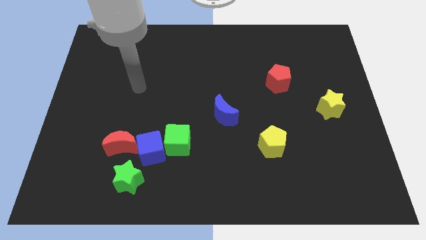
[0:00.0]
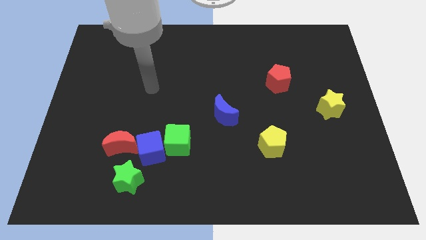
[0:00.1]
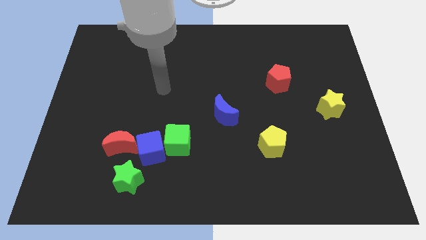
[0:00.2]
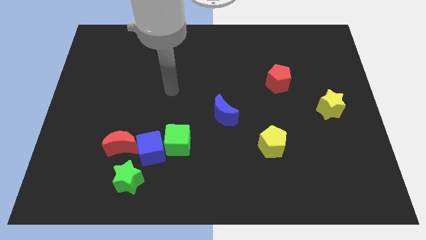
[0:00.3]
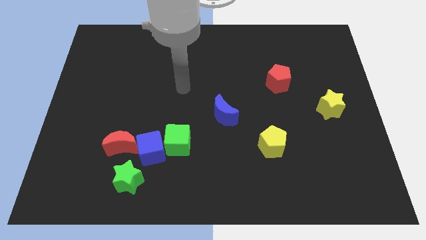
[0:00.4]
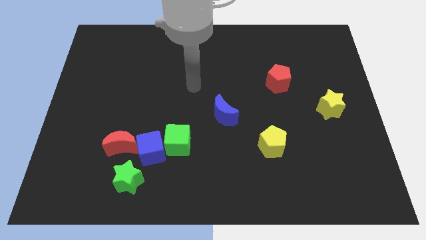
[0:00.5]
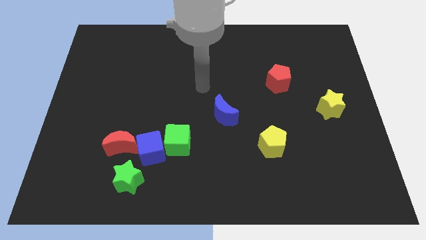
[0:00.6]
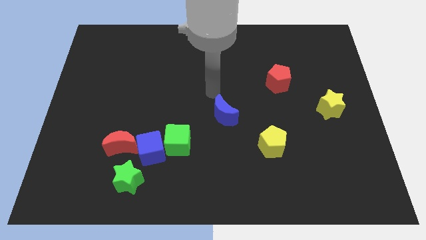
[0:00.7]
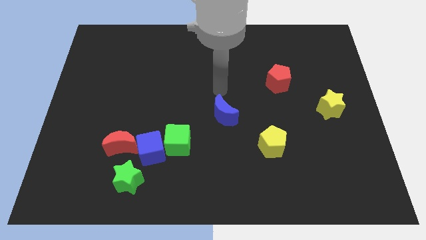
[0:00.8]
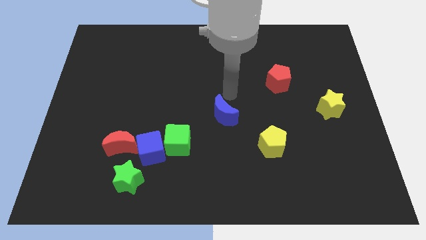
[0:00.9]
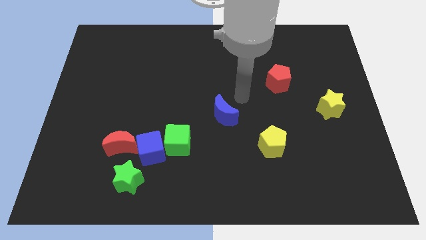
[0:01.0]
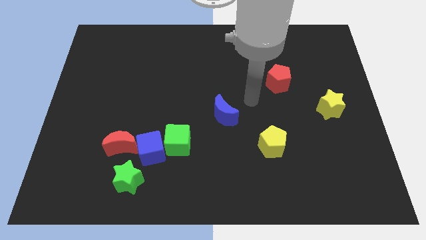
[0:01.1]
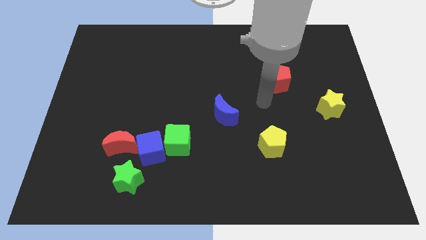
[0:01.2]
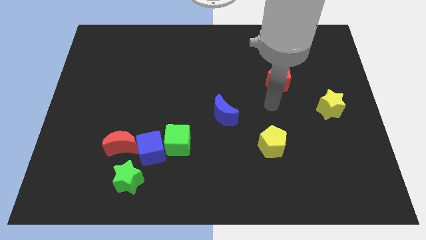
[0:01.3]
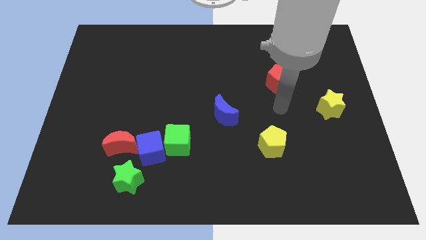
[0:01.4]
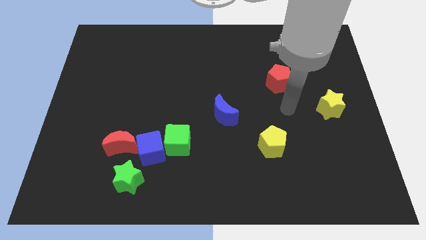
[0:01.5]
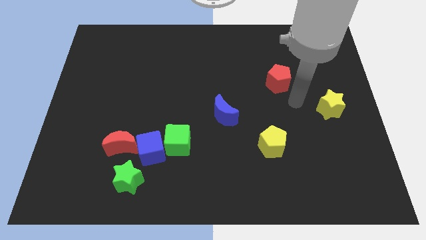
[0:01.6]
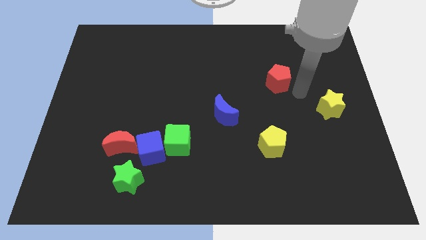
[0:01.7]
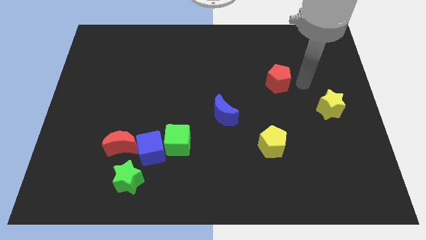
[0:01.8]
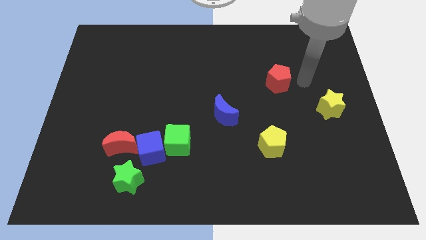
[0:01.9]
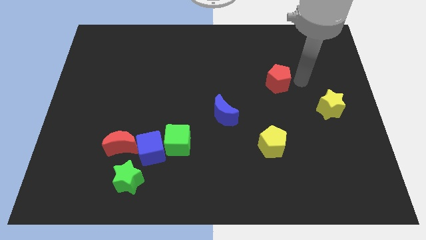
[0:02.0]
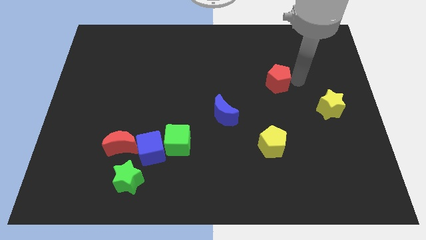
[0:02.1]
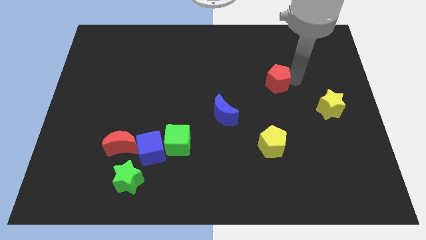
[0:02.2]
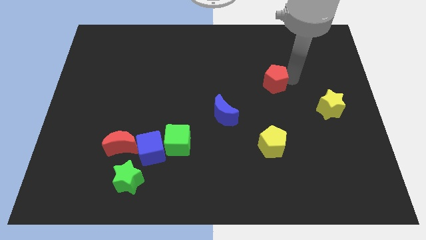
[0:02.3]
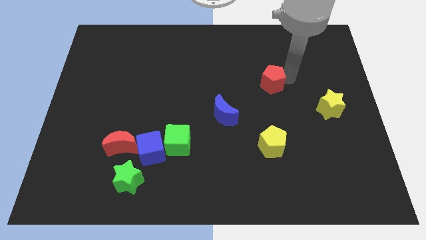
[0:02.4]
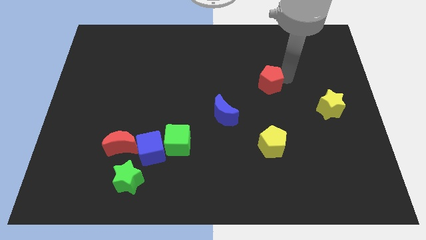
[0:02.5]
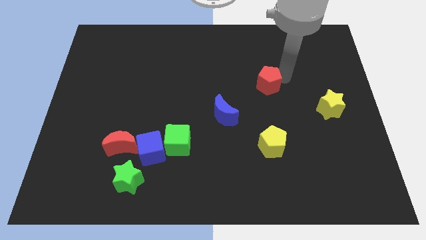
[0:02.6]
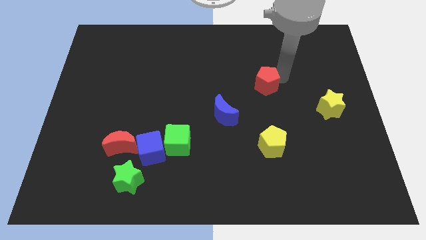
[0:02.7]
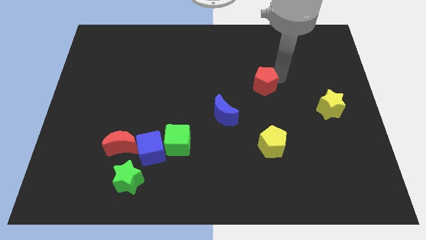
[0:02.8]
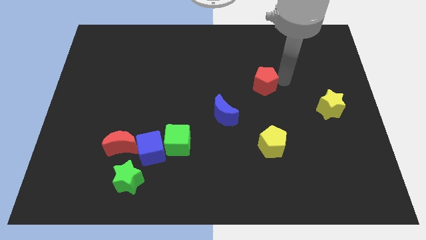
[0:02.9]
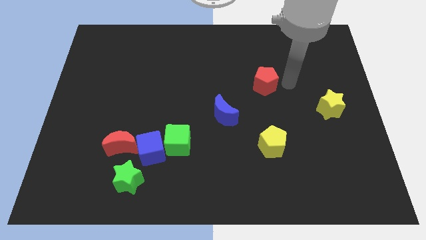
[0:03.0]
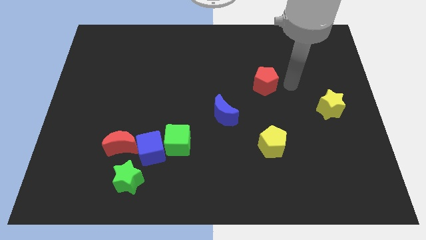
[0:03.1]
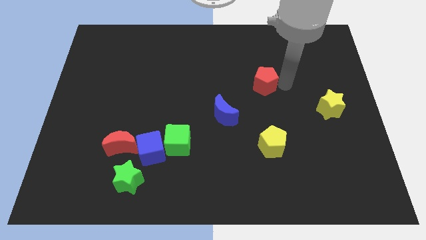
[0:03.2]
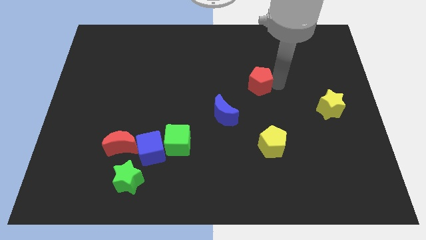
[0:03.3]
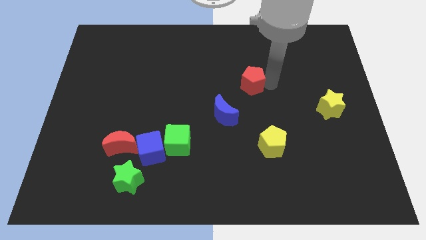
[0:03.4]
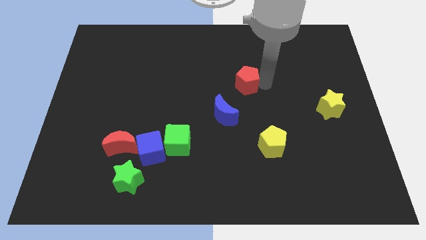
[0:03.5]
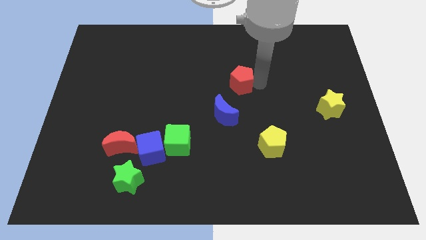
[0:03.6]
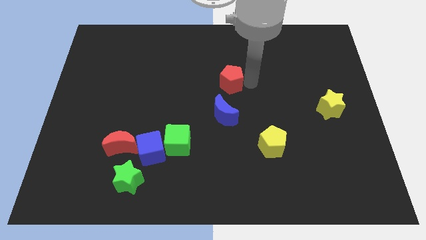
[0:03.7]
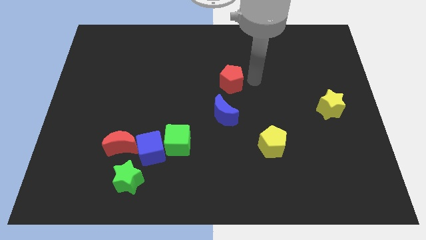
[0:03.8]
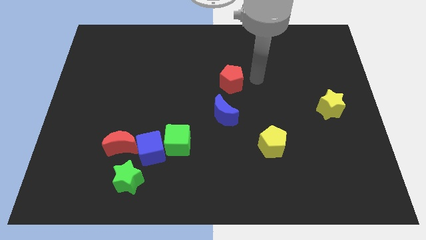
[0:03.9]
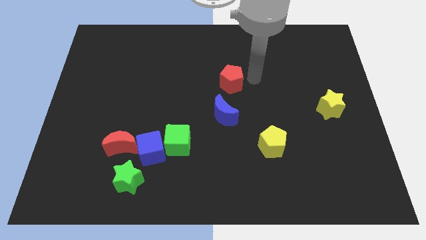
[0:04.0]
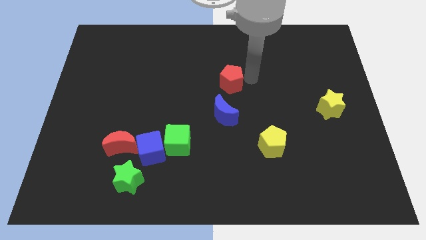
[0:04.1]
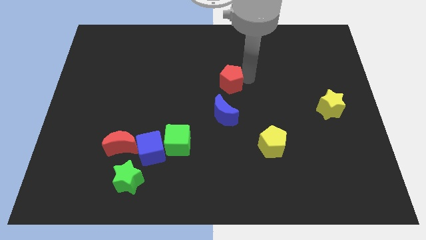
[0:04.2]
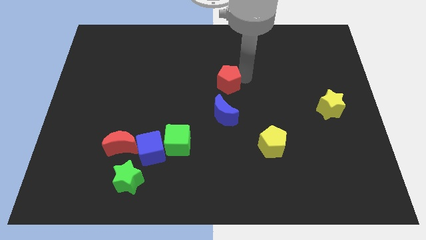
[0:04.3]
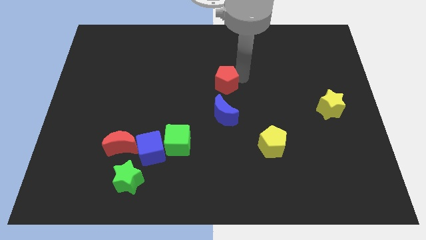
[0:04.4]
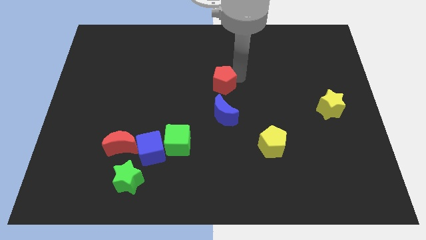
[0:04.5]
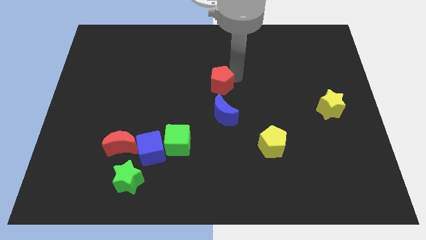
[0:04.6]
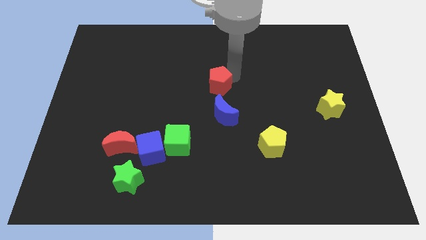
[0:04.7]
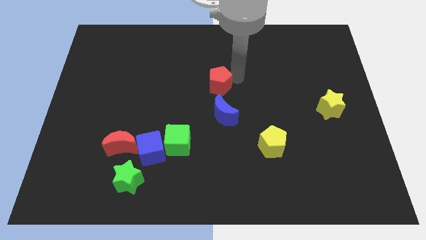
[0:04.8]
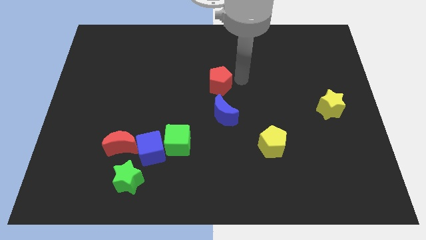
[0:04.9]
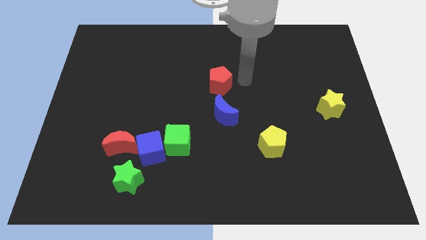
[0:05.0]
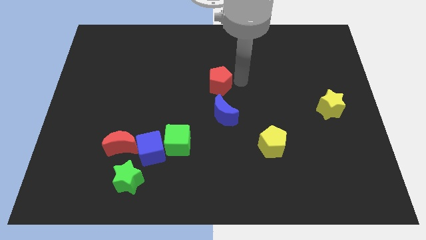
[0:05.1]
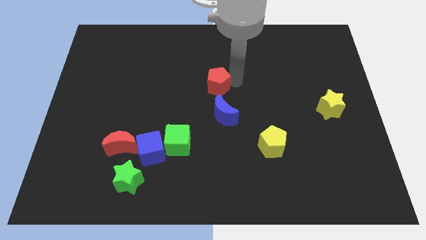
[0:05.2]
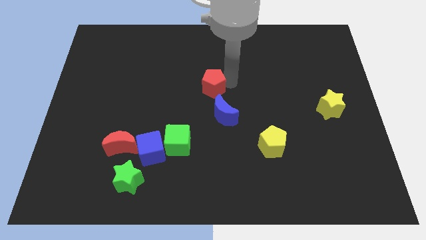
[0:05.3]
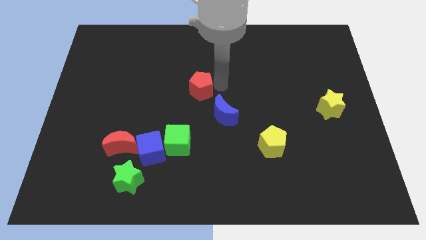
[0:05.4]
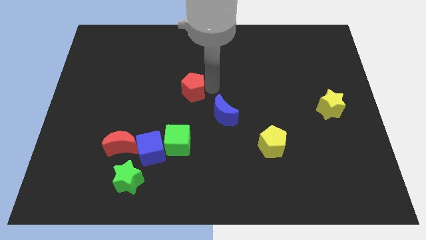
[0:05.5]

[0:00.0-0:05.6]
push the red pentagon to the left

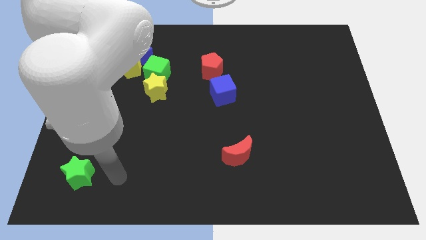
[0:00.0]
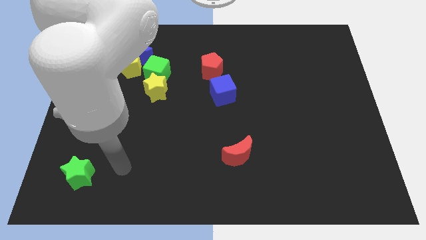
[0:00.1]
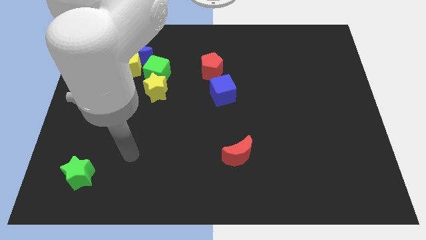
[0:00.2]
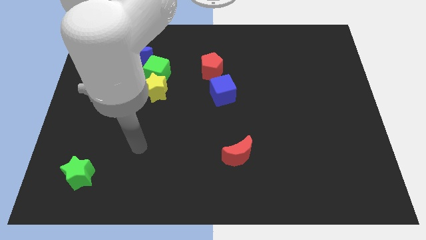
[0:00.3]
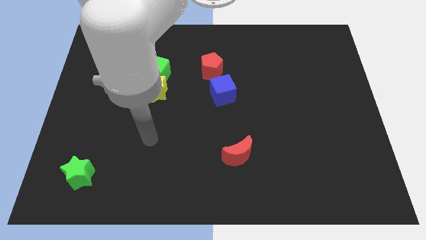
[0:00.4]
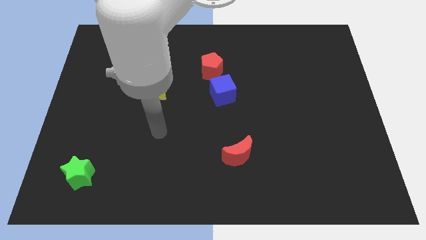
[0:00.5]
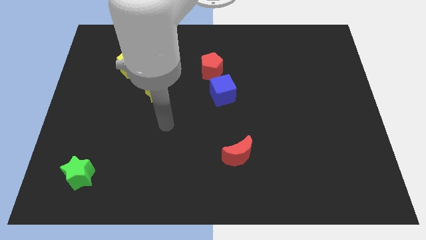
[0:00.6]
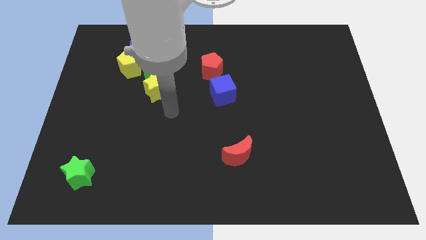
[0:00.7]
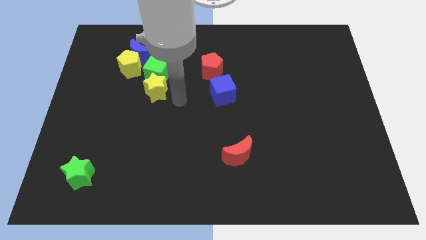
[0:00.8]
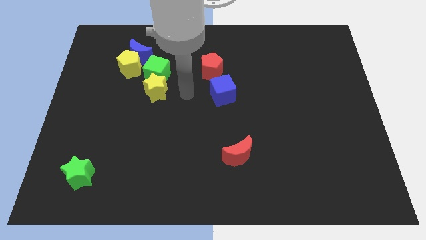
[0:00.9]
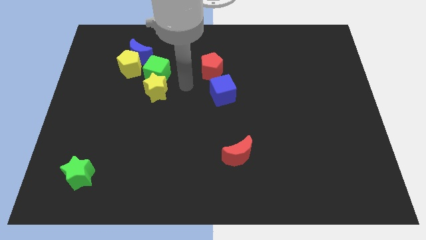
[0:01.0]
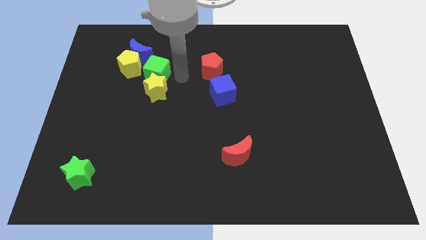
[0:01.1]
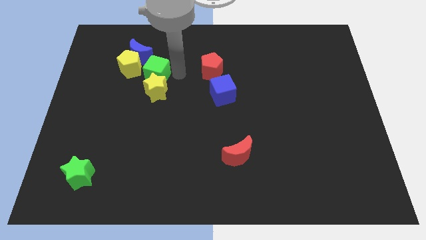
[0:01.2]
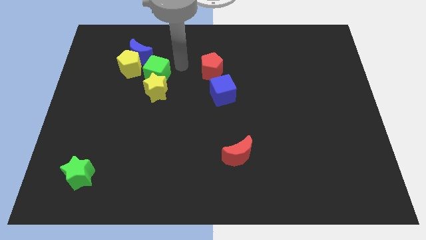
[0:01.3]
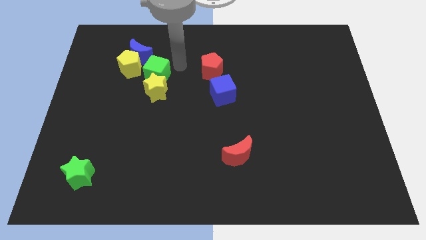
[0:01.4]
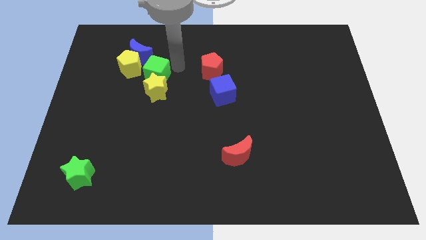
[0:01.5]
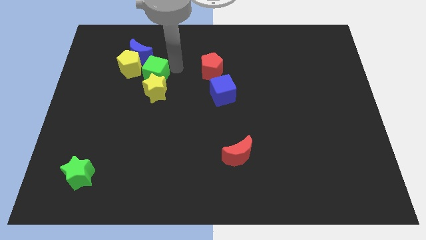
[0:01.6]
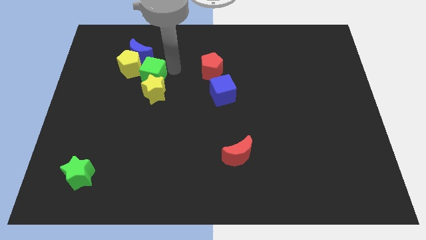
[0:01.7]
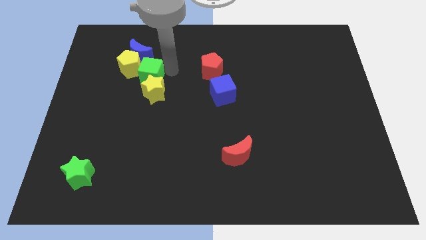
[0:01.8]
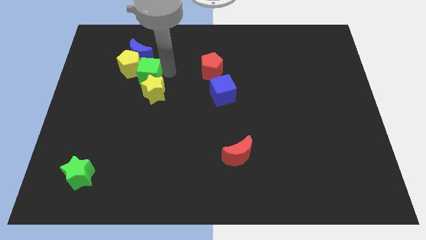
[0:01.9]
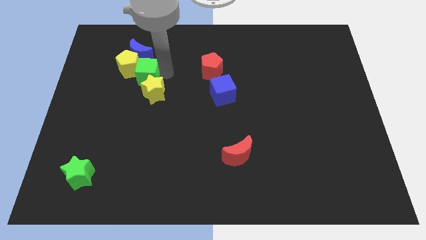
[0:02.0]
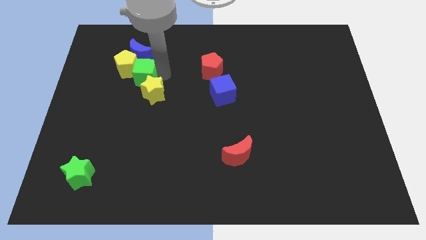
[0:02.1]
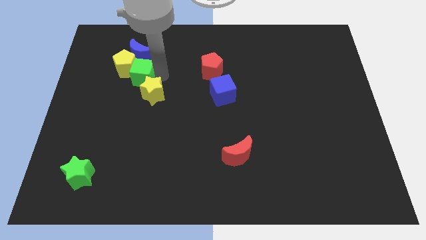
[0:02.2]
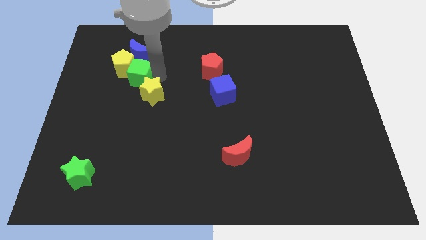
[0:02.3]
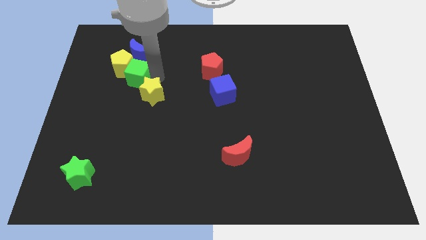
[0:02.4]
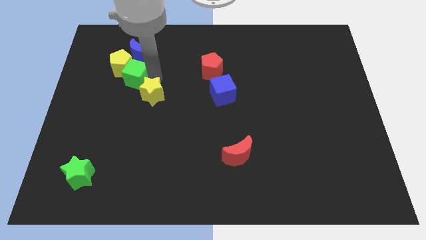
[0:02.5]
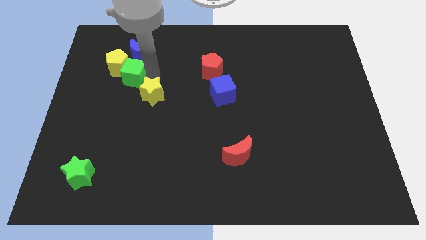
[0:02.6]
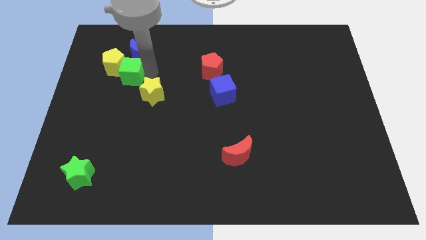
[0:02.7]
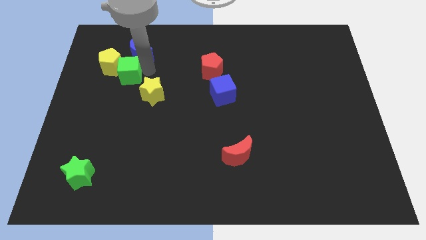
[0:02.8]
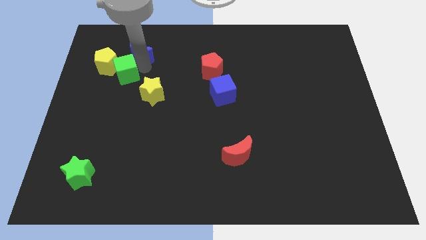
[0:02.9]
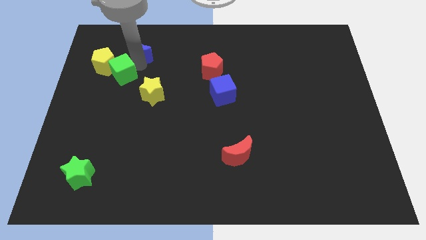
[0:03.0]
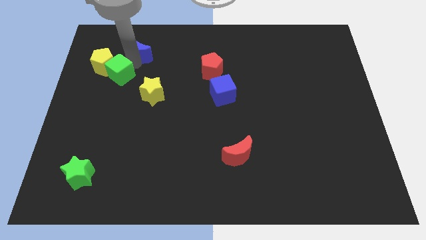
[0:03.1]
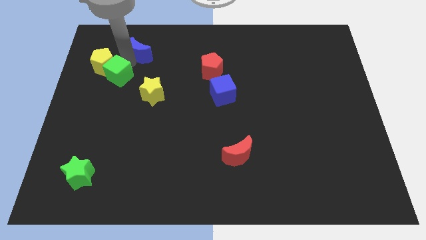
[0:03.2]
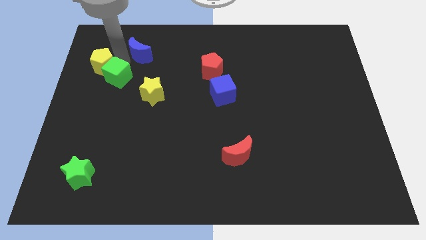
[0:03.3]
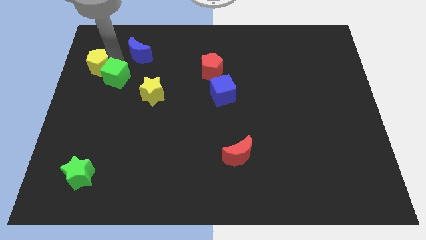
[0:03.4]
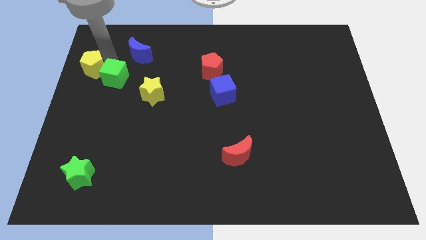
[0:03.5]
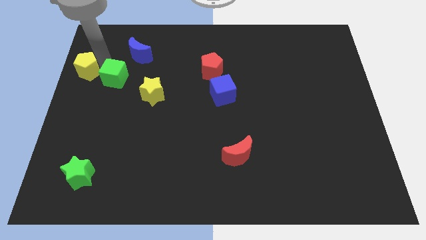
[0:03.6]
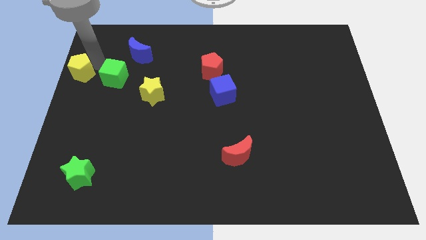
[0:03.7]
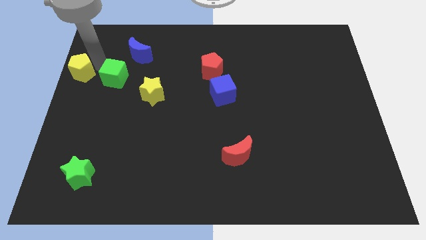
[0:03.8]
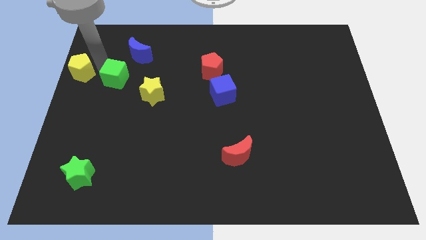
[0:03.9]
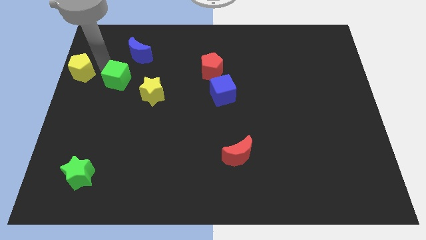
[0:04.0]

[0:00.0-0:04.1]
slide the green cube a little down and then to the left
